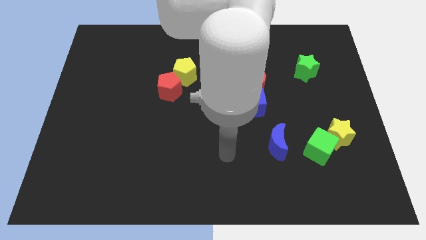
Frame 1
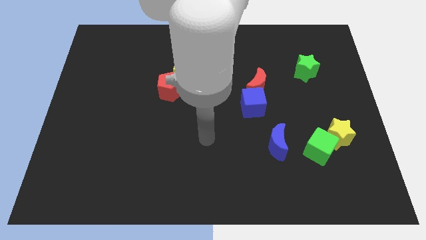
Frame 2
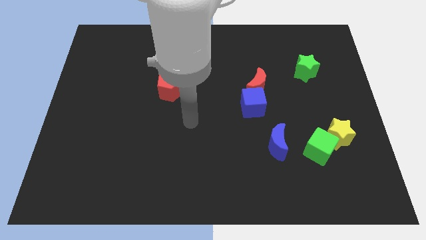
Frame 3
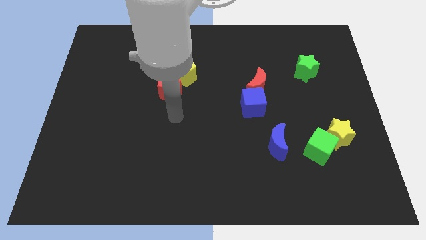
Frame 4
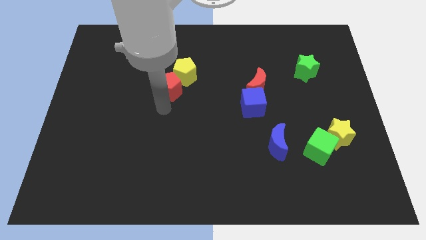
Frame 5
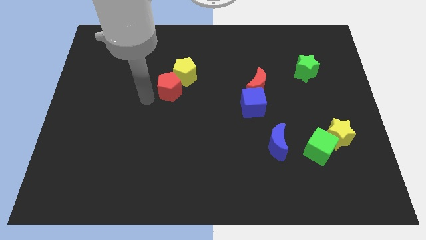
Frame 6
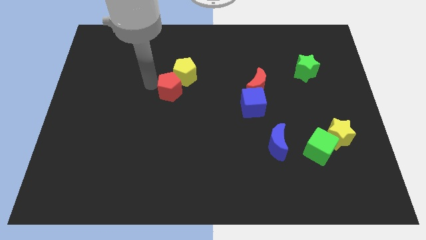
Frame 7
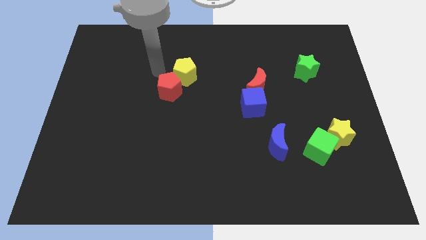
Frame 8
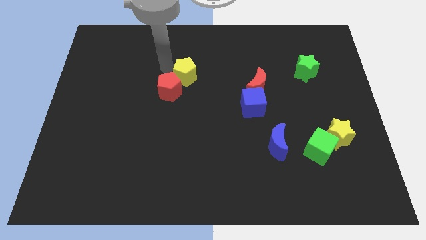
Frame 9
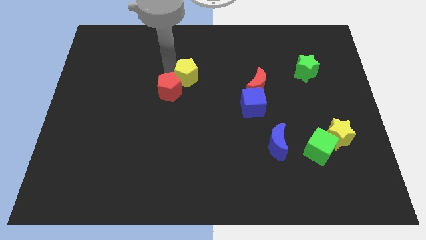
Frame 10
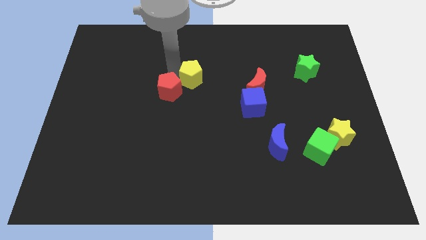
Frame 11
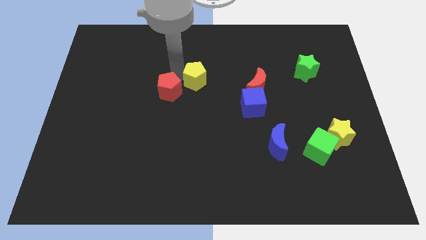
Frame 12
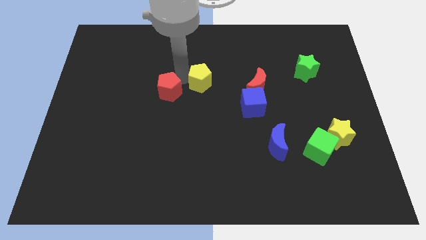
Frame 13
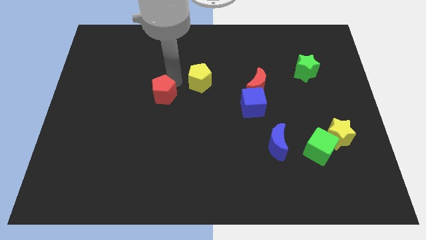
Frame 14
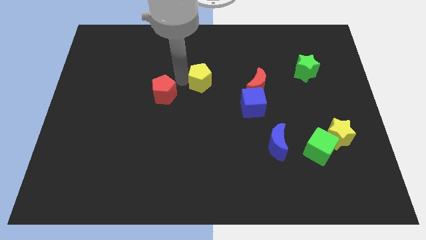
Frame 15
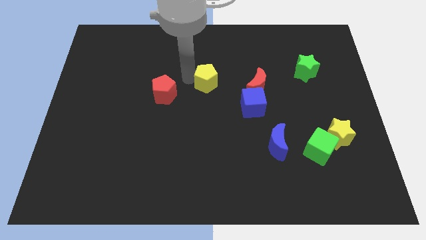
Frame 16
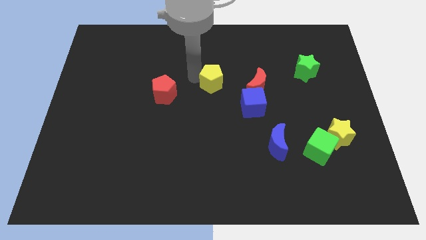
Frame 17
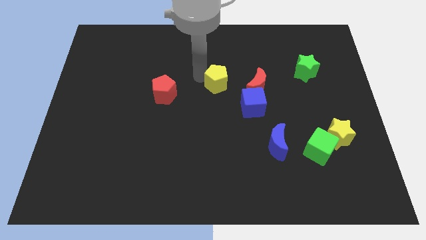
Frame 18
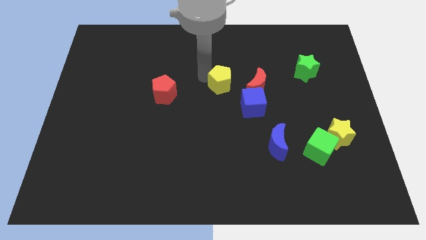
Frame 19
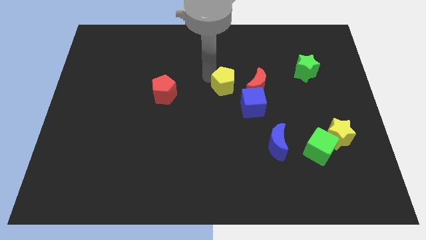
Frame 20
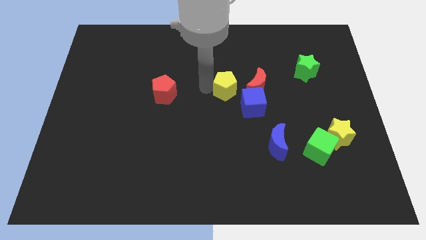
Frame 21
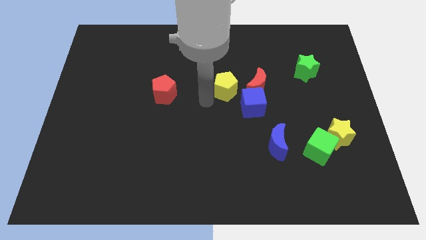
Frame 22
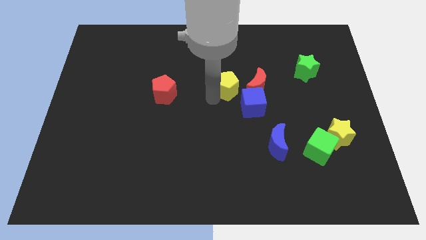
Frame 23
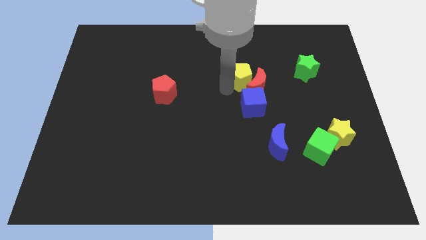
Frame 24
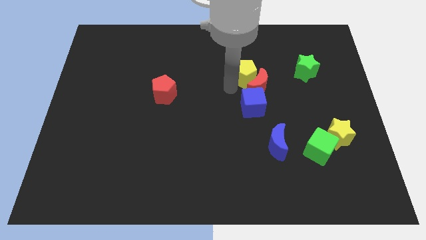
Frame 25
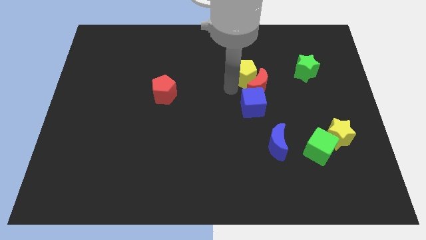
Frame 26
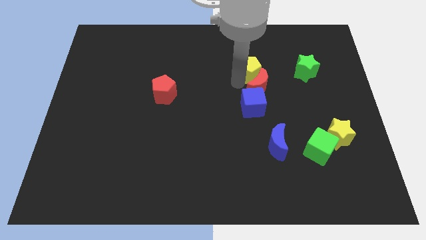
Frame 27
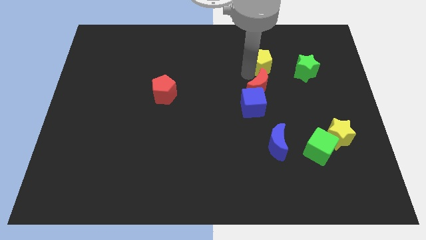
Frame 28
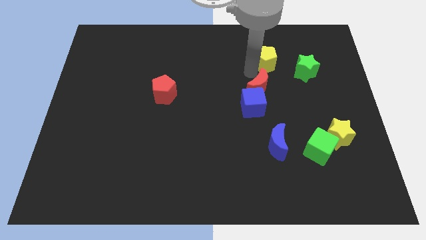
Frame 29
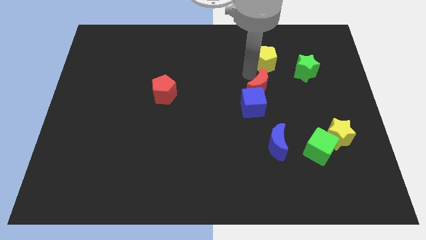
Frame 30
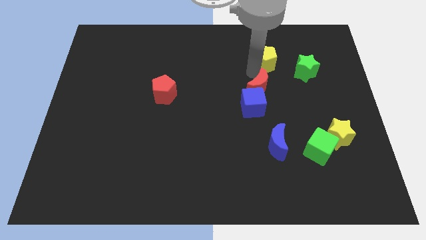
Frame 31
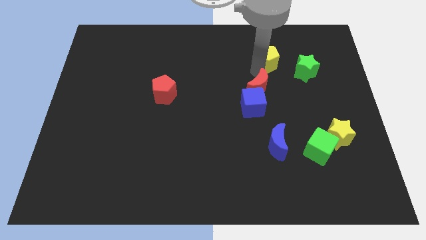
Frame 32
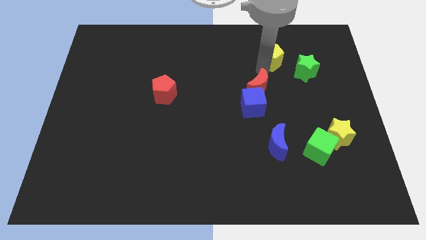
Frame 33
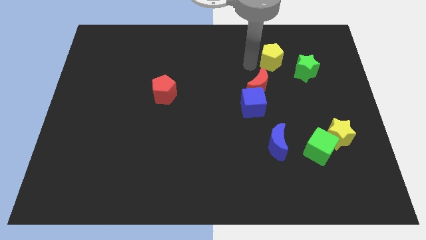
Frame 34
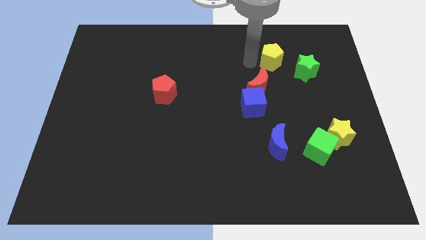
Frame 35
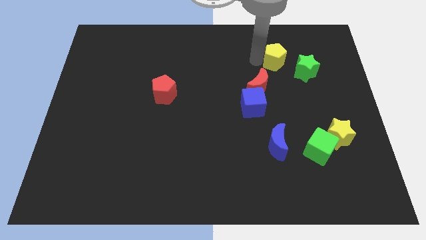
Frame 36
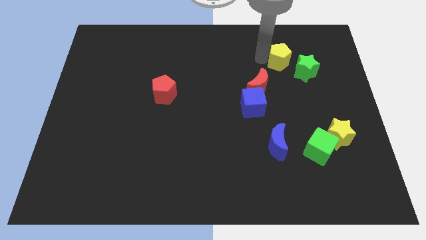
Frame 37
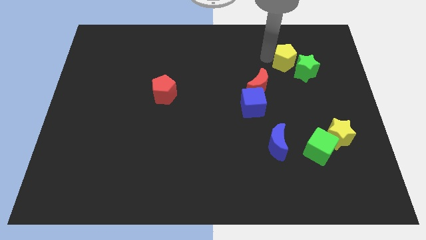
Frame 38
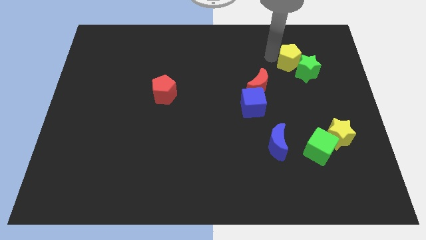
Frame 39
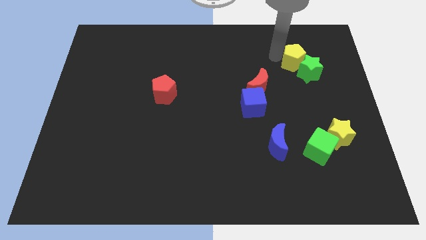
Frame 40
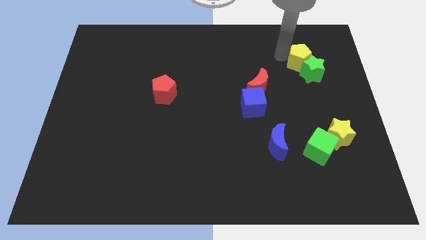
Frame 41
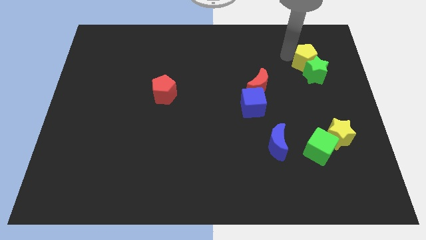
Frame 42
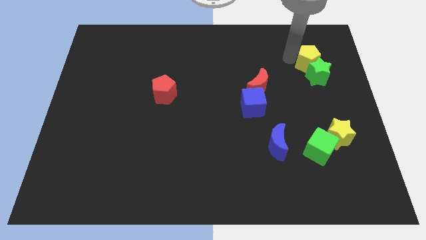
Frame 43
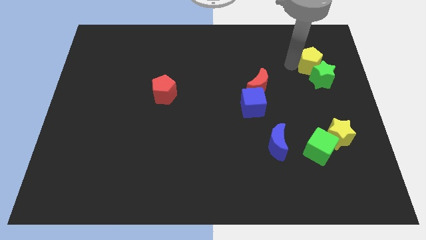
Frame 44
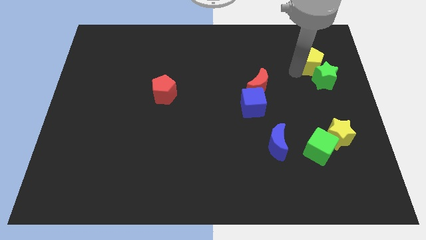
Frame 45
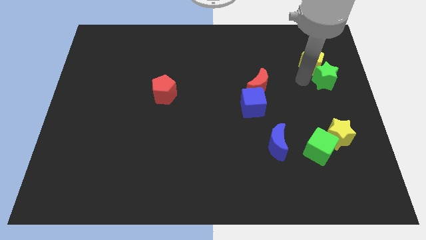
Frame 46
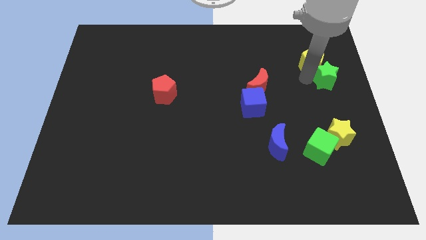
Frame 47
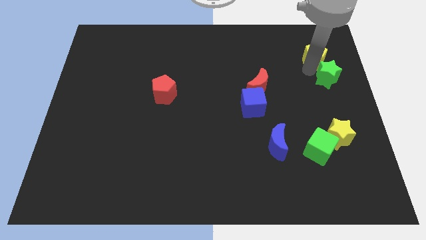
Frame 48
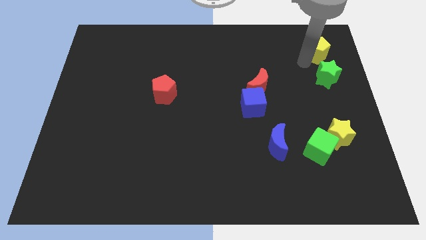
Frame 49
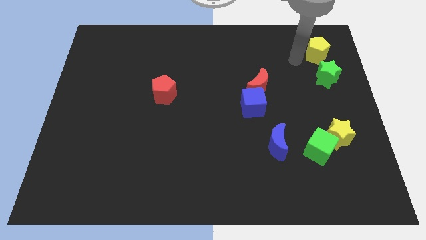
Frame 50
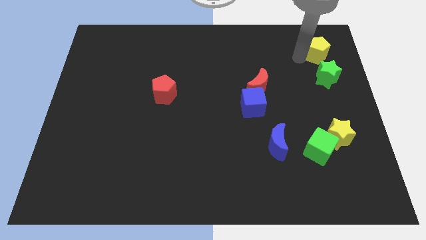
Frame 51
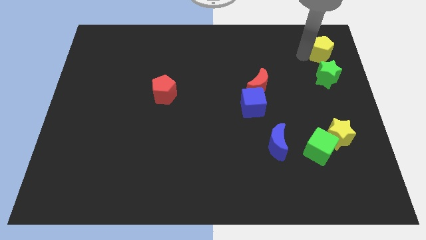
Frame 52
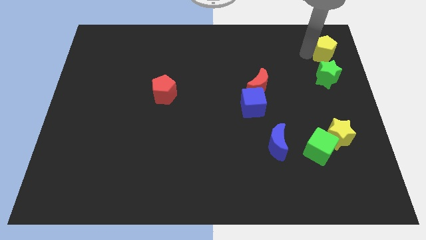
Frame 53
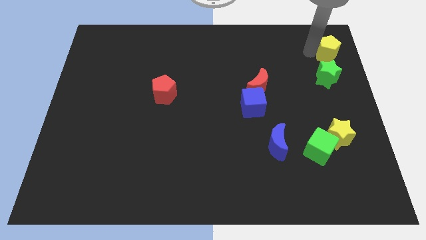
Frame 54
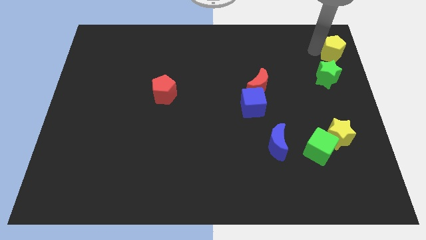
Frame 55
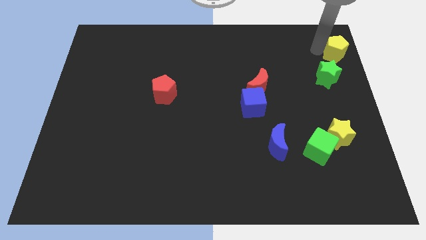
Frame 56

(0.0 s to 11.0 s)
push the yellow pentagon to the top right of the board
